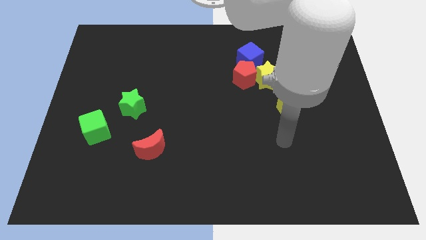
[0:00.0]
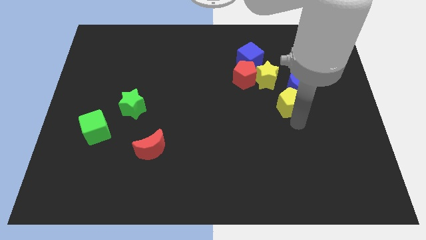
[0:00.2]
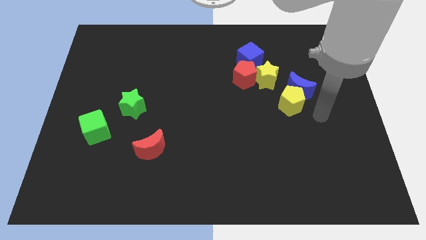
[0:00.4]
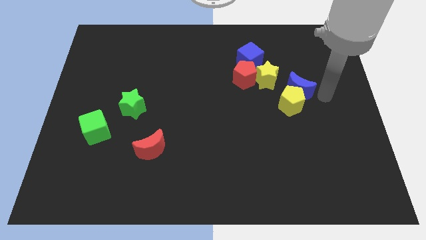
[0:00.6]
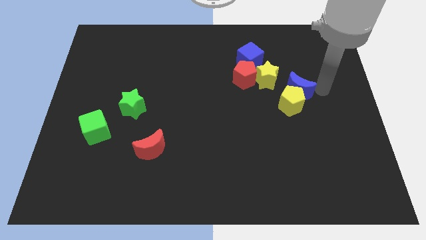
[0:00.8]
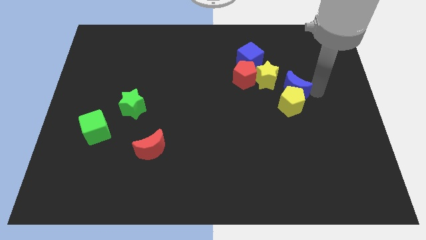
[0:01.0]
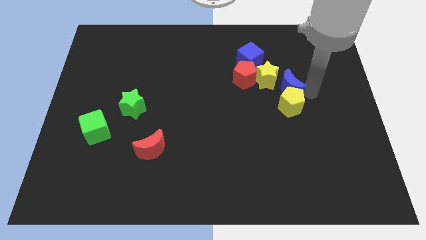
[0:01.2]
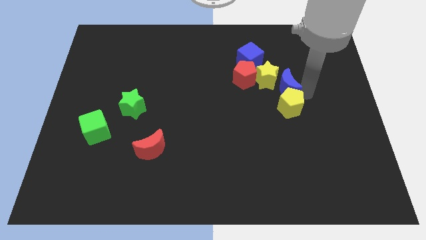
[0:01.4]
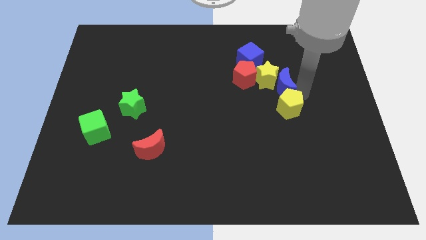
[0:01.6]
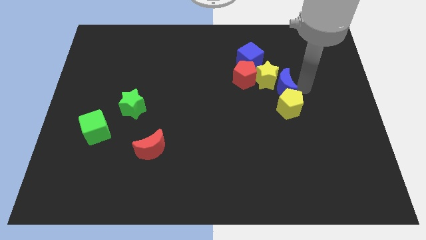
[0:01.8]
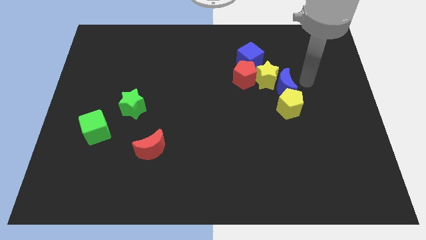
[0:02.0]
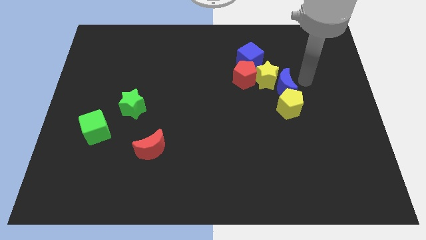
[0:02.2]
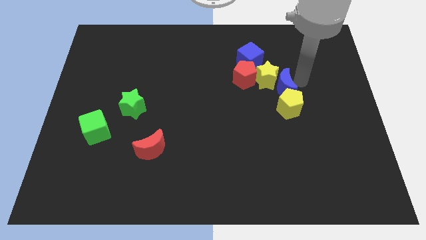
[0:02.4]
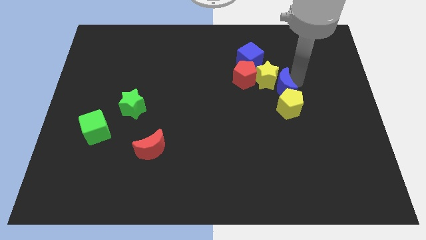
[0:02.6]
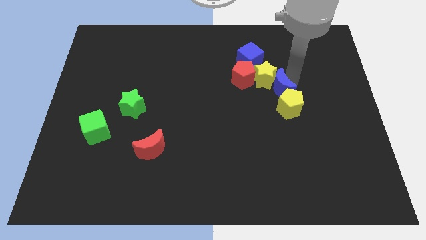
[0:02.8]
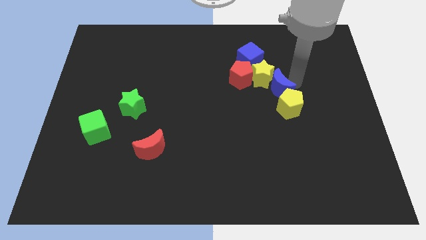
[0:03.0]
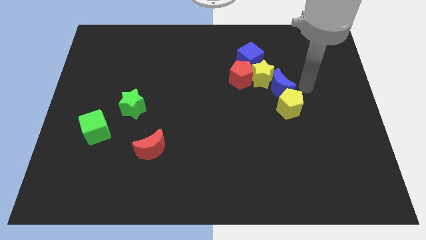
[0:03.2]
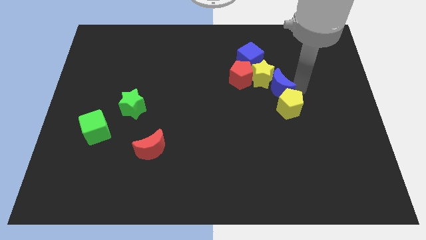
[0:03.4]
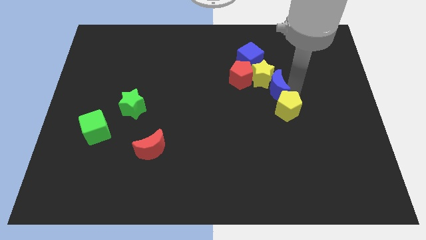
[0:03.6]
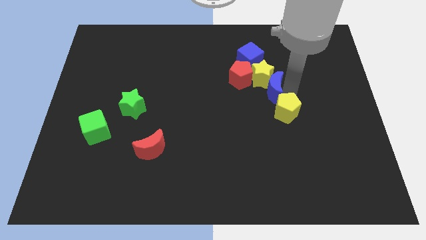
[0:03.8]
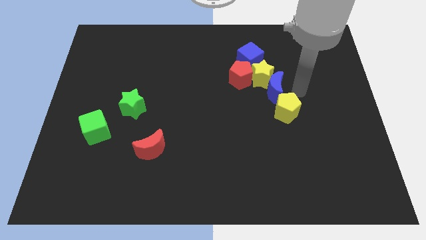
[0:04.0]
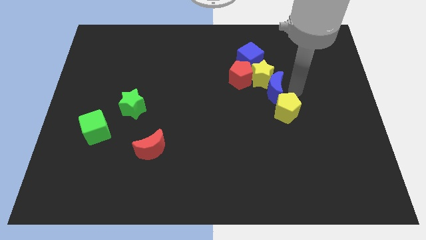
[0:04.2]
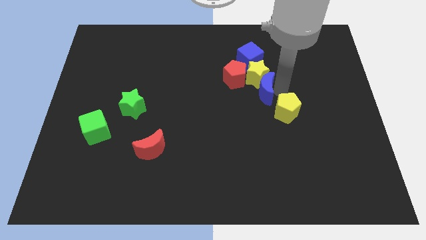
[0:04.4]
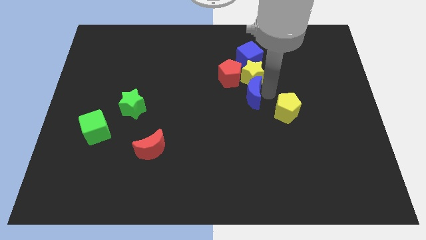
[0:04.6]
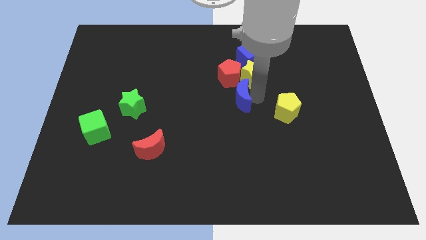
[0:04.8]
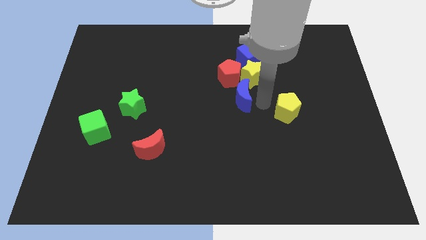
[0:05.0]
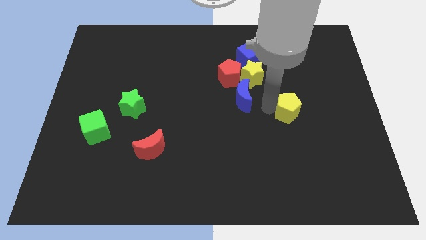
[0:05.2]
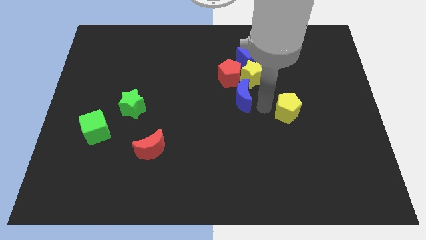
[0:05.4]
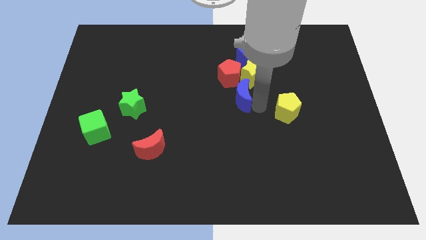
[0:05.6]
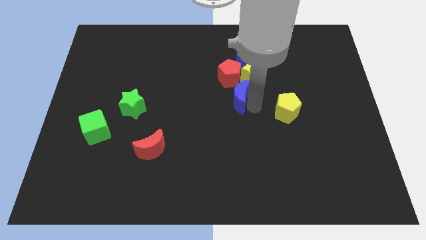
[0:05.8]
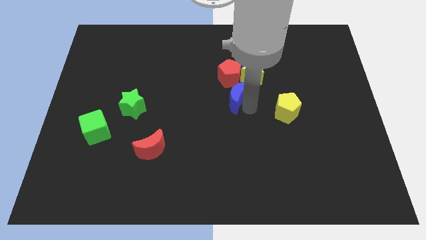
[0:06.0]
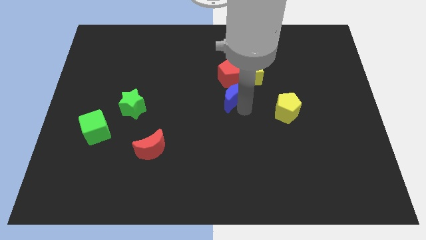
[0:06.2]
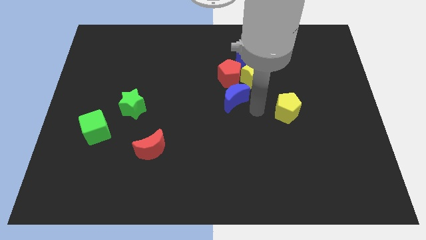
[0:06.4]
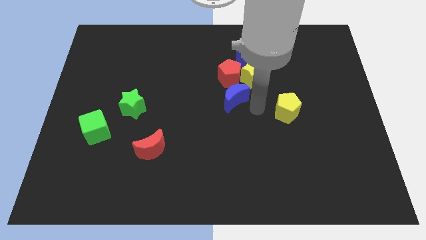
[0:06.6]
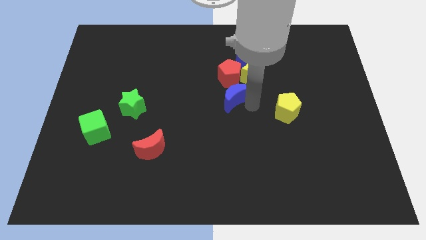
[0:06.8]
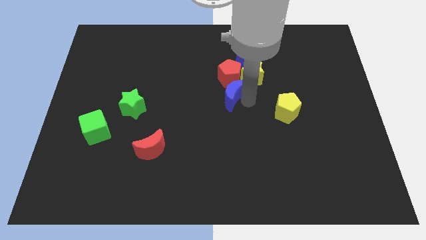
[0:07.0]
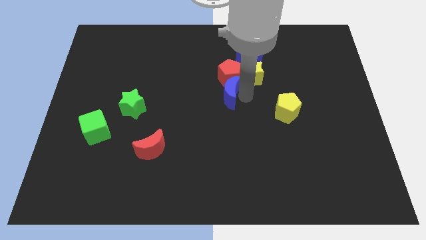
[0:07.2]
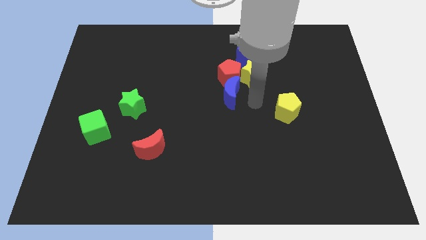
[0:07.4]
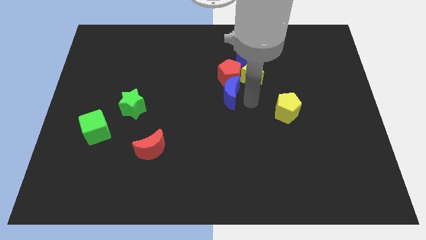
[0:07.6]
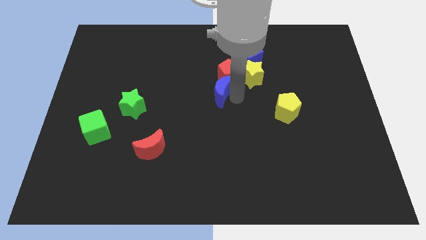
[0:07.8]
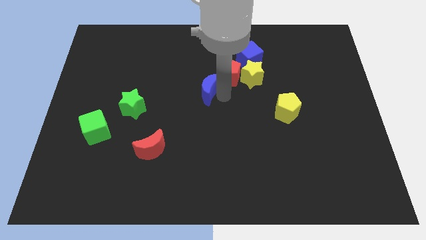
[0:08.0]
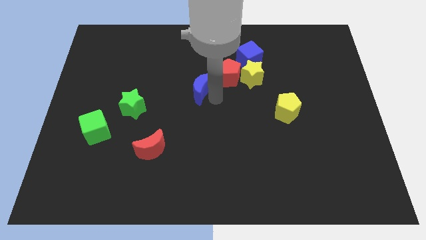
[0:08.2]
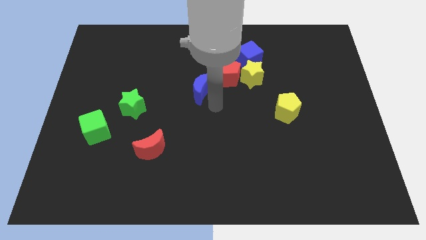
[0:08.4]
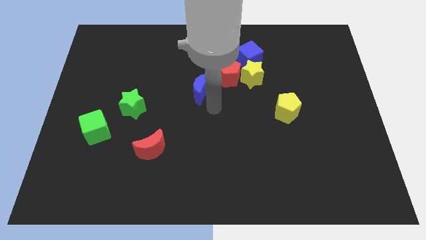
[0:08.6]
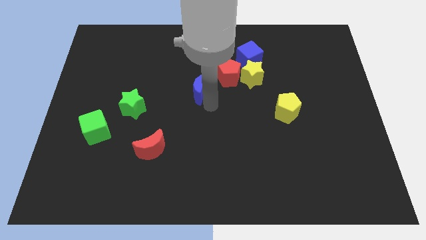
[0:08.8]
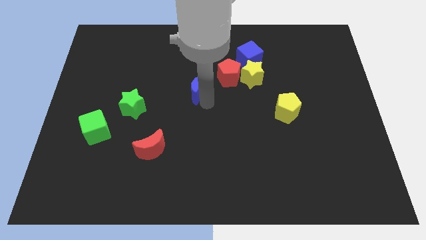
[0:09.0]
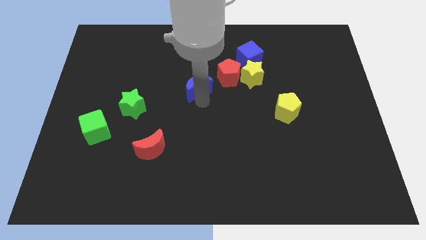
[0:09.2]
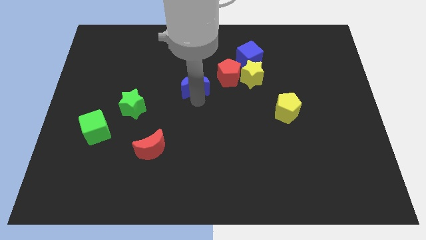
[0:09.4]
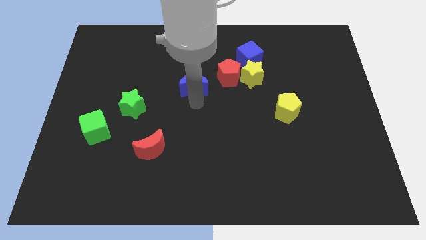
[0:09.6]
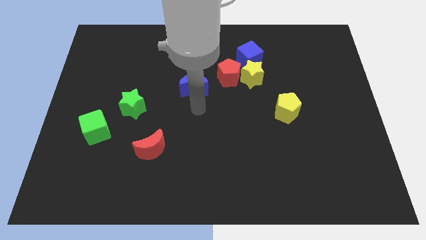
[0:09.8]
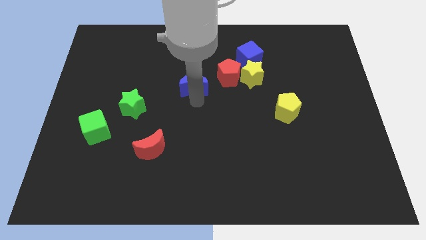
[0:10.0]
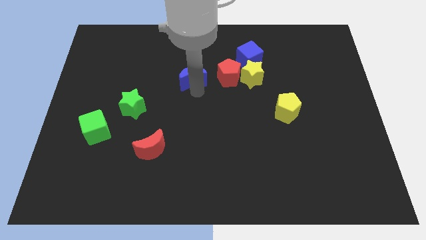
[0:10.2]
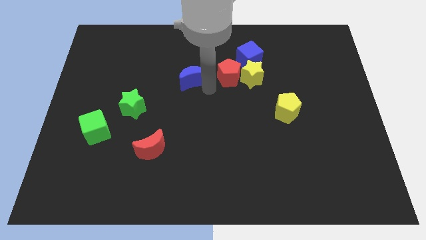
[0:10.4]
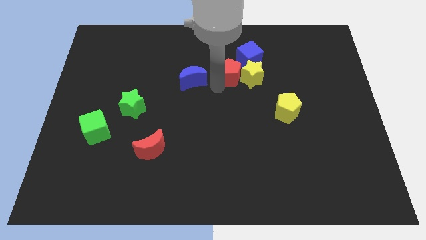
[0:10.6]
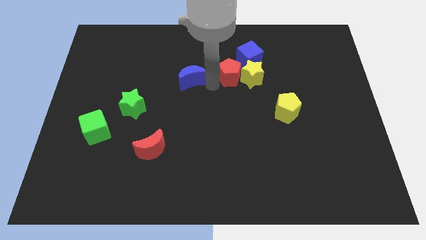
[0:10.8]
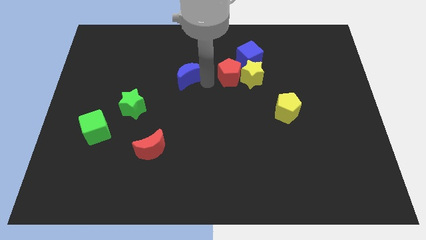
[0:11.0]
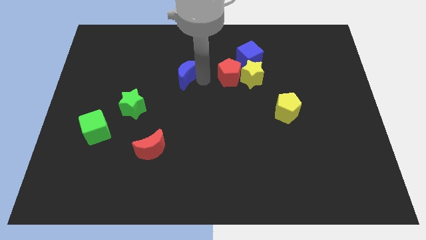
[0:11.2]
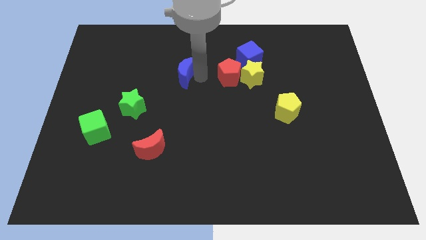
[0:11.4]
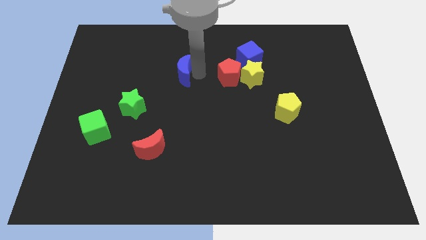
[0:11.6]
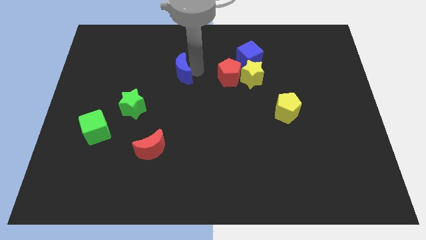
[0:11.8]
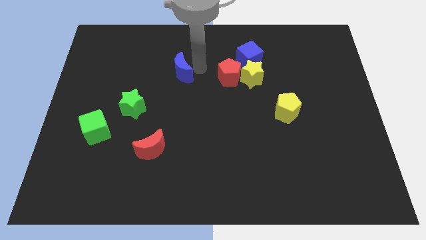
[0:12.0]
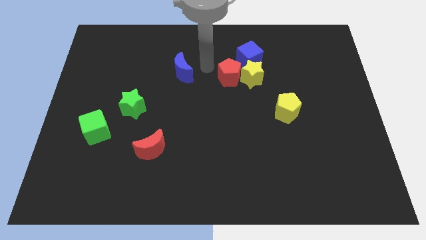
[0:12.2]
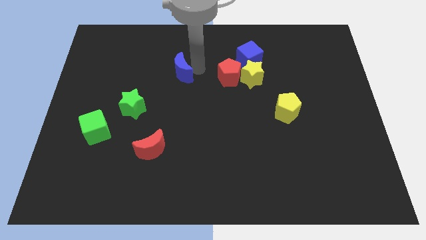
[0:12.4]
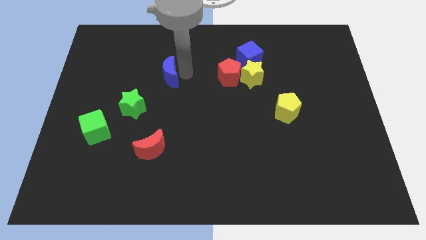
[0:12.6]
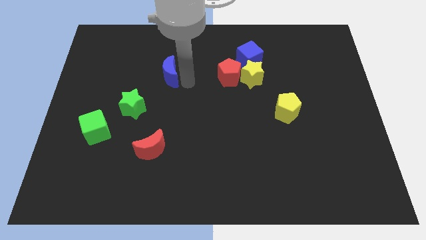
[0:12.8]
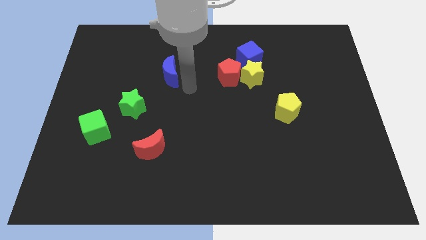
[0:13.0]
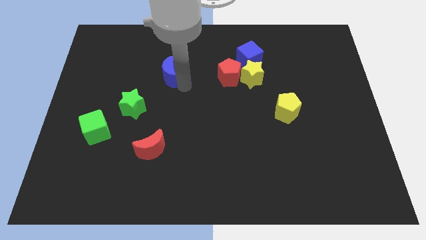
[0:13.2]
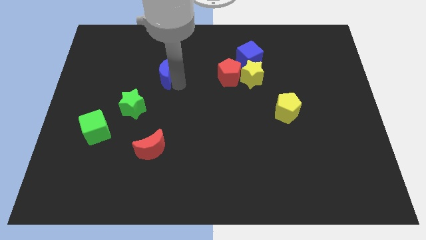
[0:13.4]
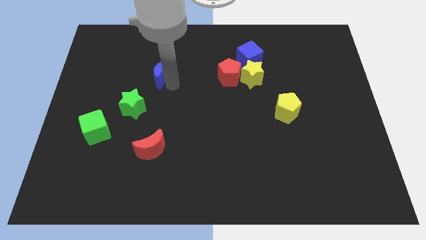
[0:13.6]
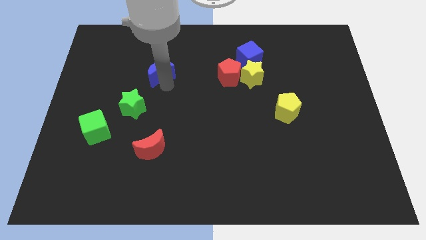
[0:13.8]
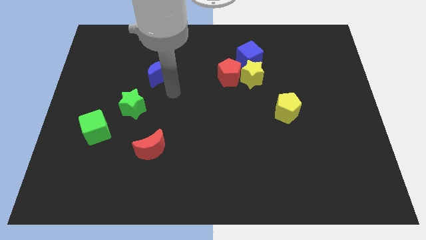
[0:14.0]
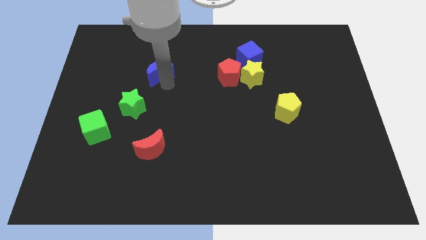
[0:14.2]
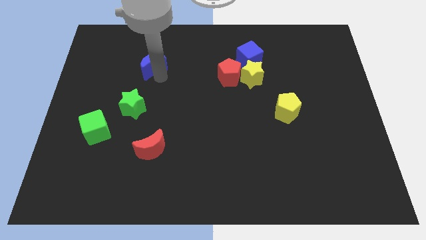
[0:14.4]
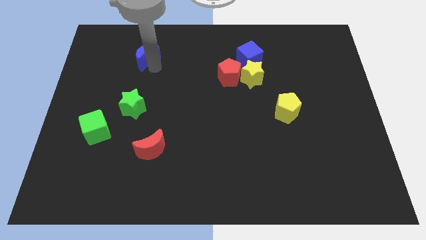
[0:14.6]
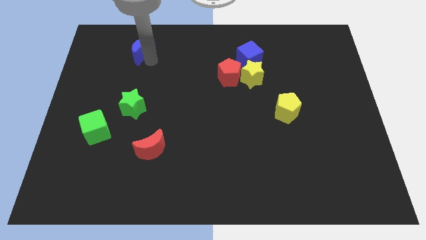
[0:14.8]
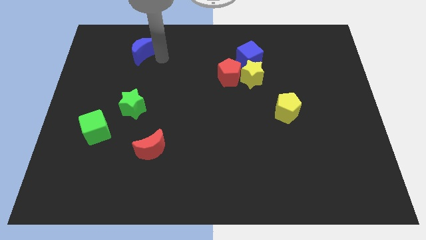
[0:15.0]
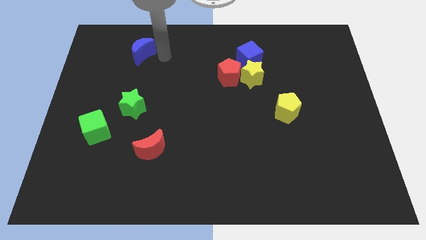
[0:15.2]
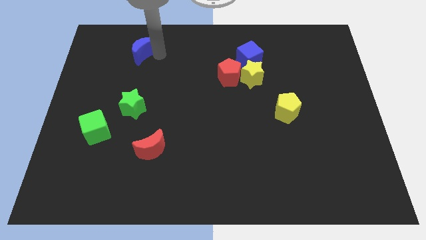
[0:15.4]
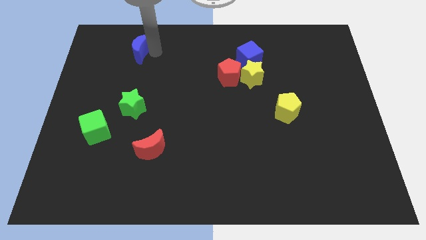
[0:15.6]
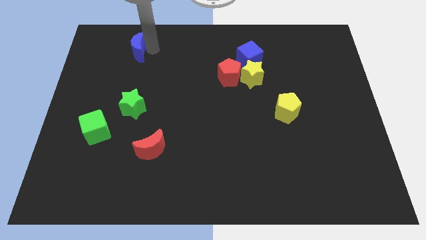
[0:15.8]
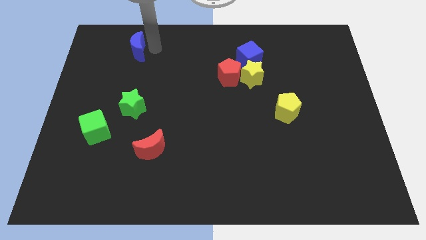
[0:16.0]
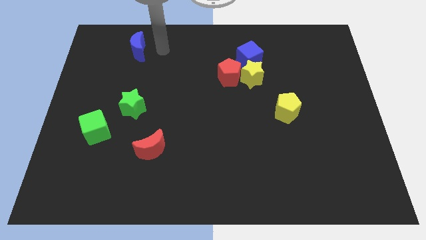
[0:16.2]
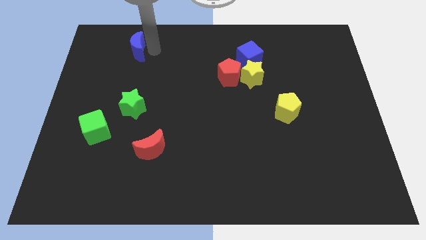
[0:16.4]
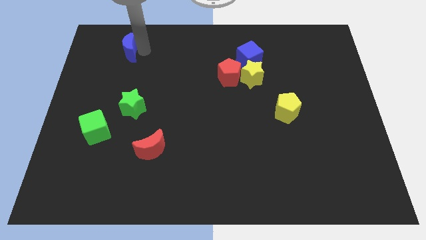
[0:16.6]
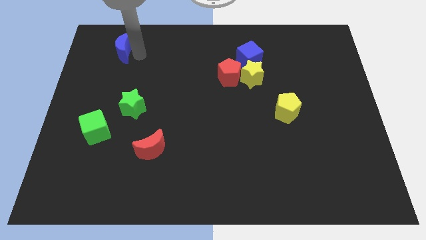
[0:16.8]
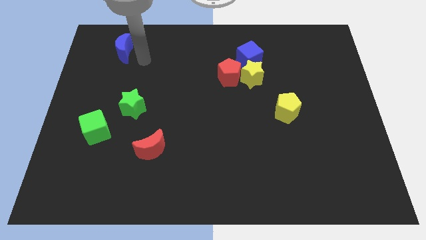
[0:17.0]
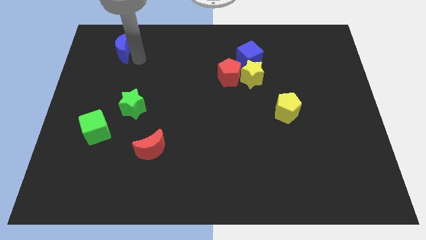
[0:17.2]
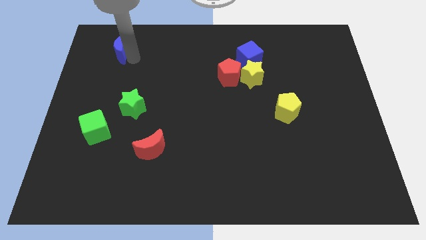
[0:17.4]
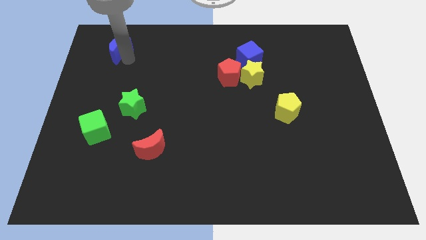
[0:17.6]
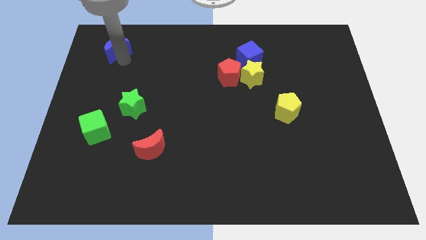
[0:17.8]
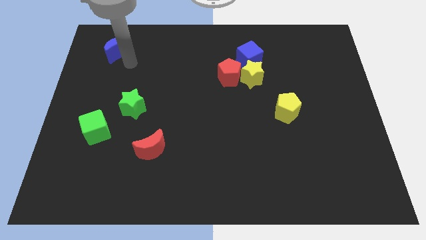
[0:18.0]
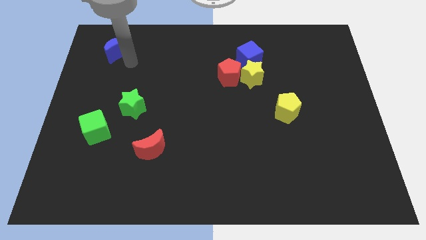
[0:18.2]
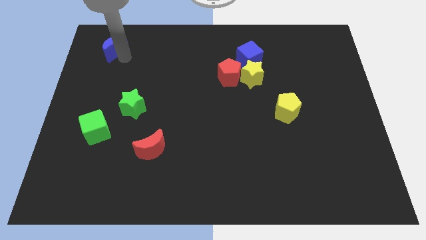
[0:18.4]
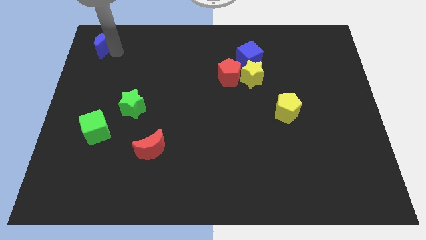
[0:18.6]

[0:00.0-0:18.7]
move the blue moon to the top left corner
